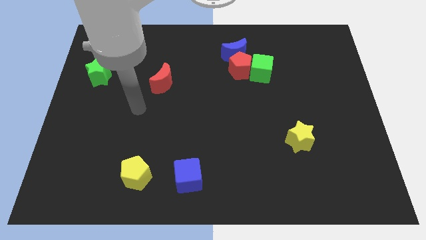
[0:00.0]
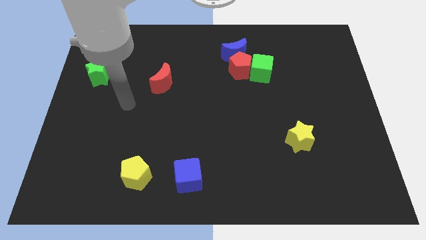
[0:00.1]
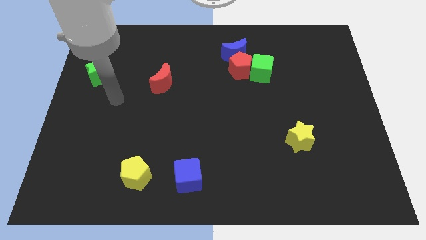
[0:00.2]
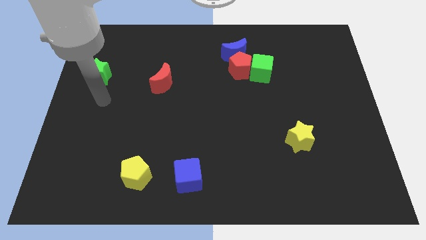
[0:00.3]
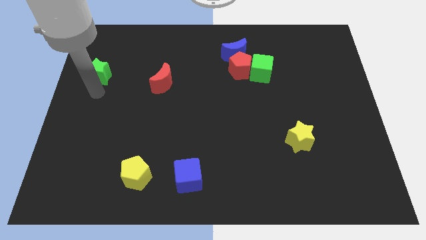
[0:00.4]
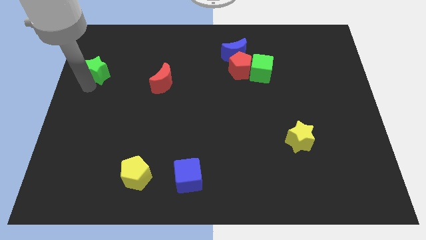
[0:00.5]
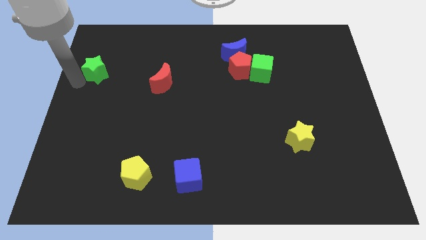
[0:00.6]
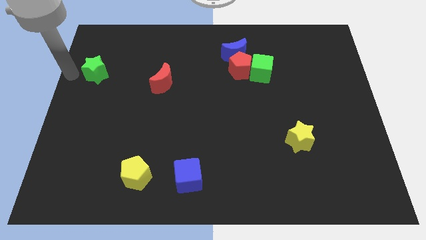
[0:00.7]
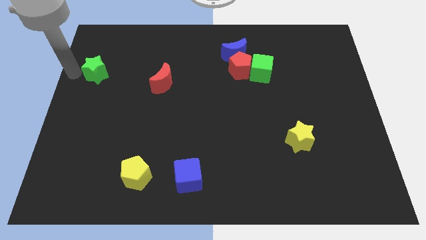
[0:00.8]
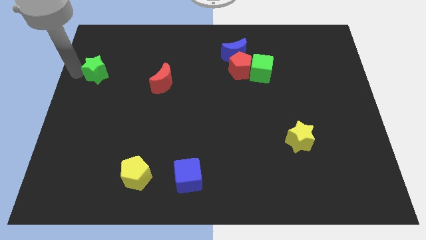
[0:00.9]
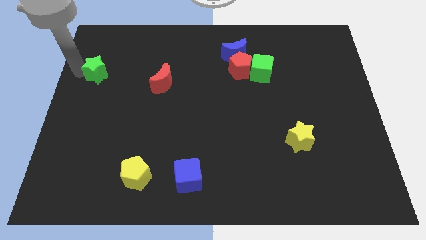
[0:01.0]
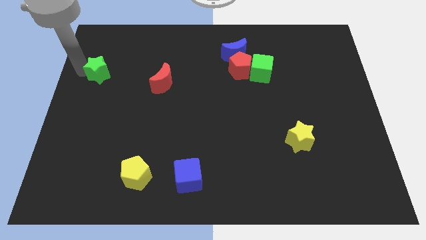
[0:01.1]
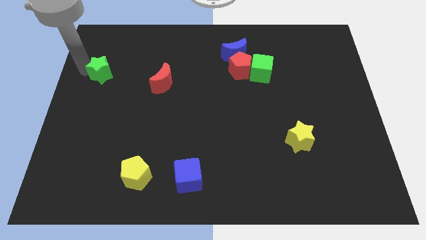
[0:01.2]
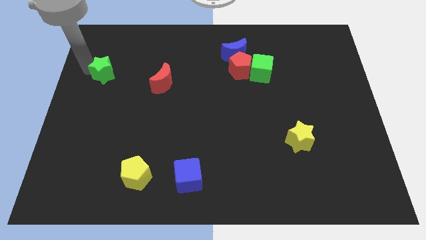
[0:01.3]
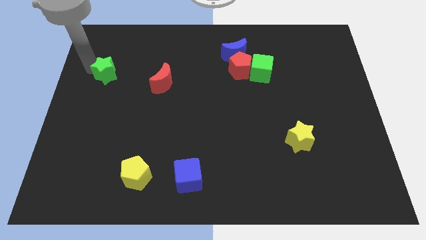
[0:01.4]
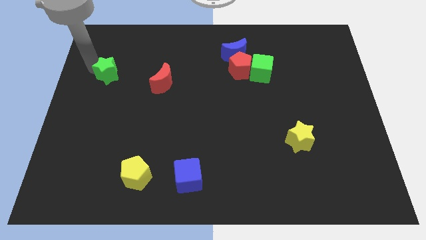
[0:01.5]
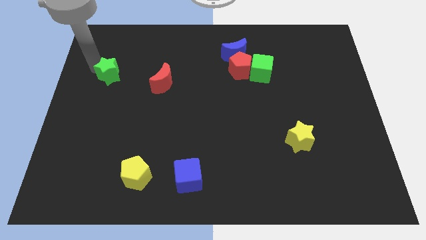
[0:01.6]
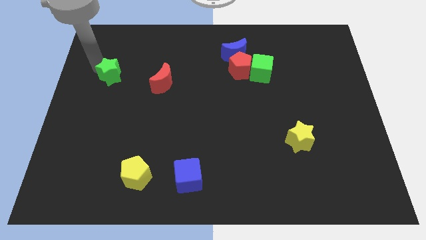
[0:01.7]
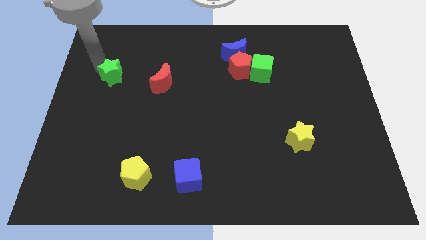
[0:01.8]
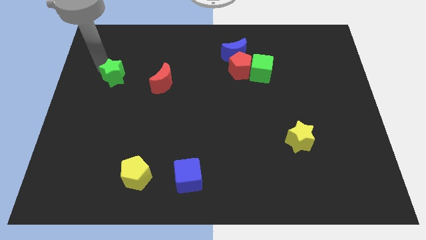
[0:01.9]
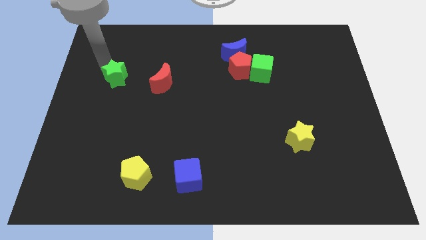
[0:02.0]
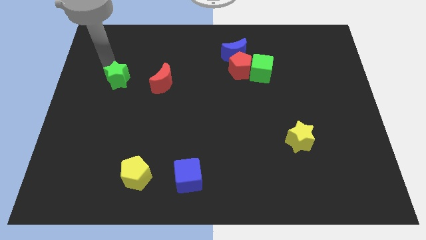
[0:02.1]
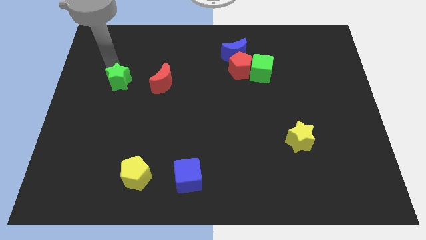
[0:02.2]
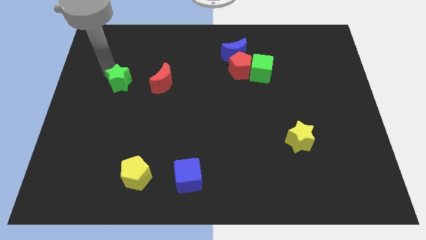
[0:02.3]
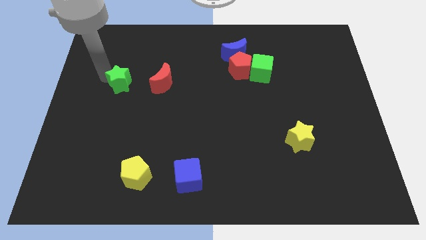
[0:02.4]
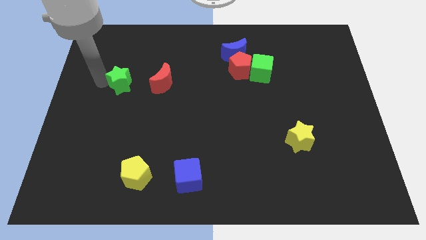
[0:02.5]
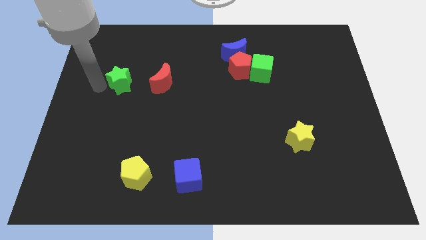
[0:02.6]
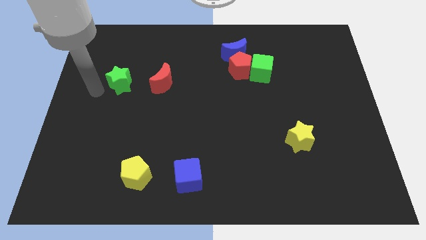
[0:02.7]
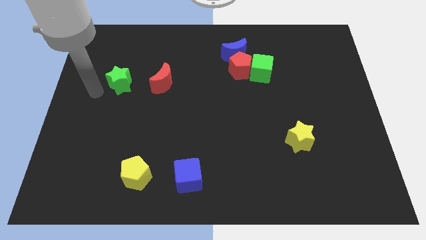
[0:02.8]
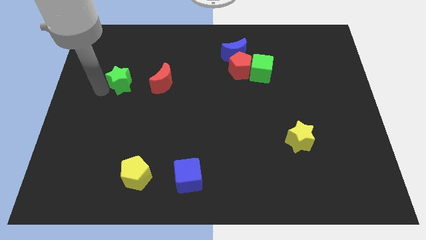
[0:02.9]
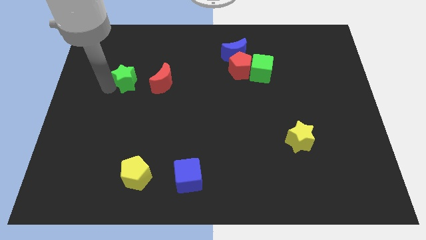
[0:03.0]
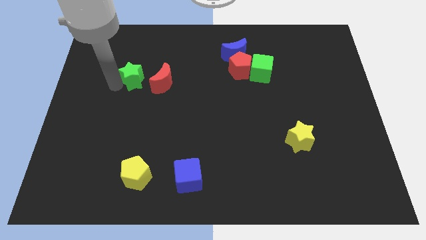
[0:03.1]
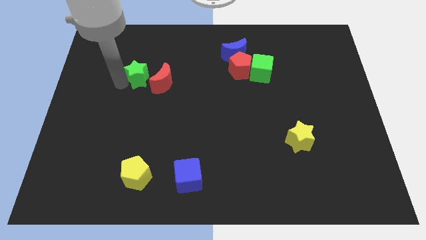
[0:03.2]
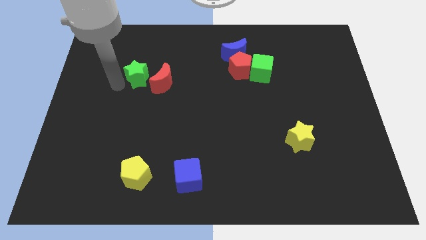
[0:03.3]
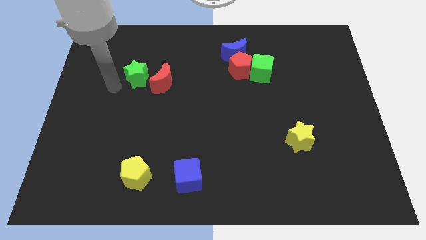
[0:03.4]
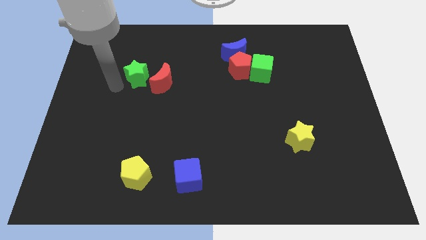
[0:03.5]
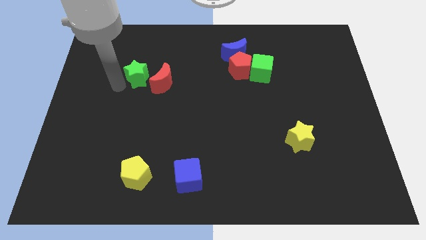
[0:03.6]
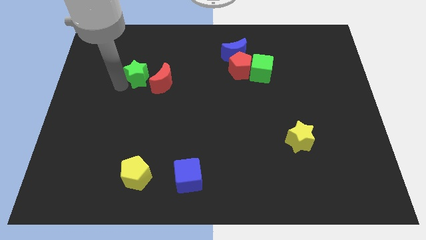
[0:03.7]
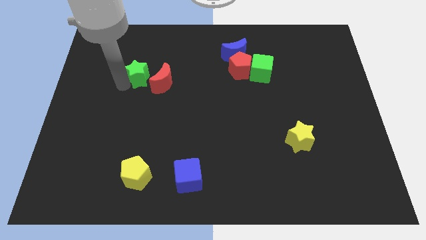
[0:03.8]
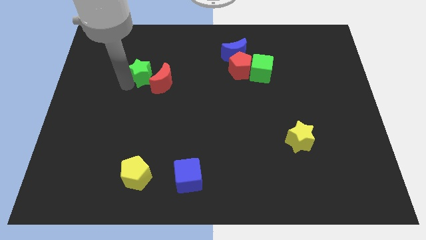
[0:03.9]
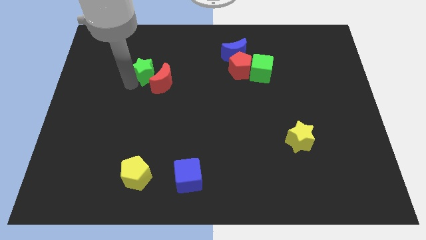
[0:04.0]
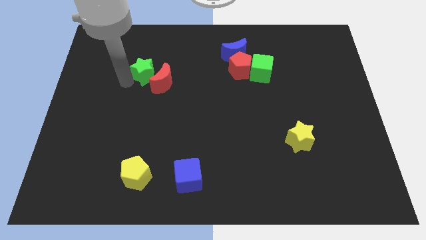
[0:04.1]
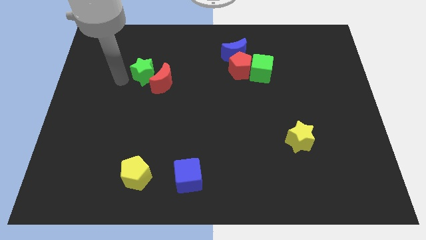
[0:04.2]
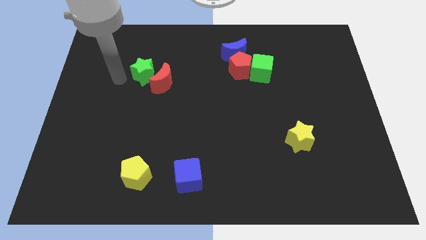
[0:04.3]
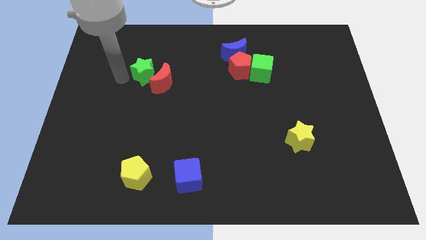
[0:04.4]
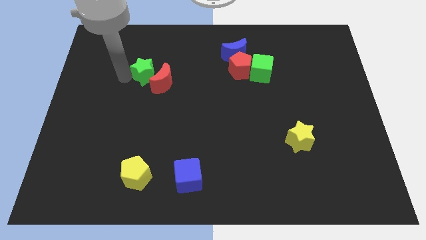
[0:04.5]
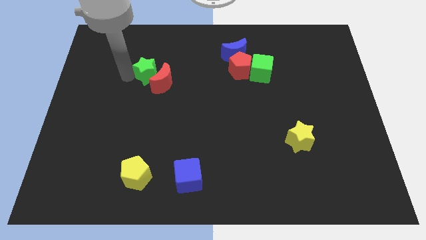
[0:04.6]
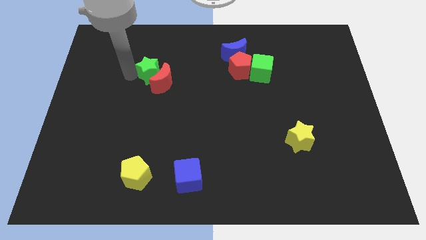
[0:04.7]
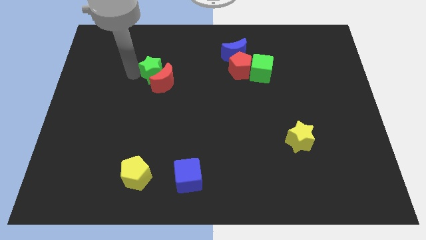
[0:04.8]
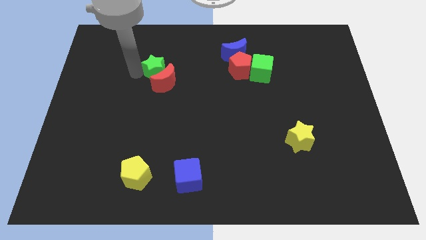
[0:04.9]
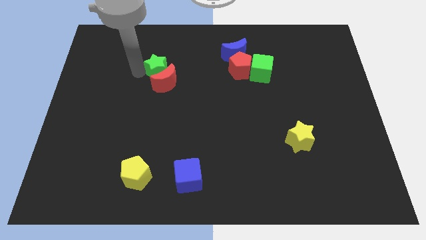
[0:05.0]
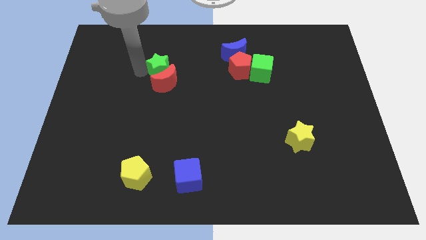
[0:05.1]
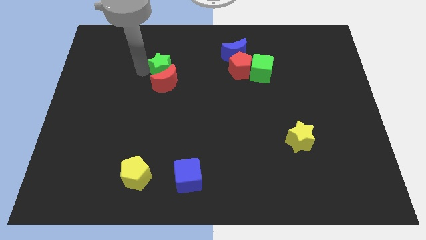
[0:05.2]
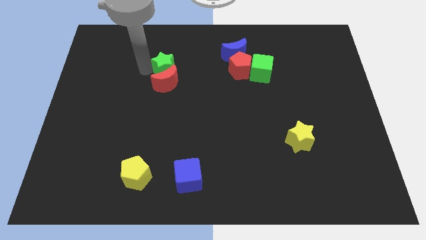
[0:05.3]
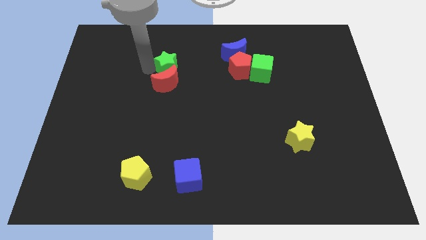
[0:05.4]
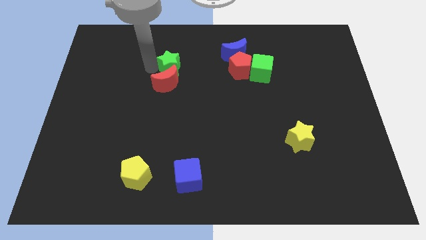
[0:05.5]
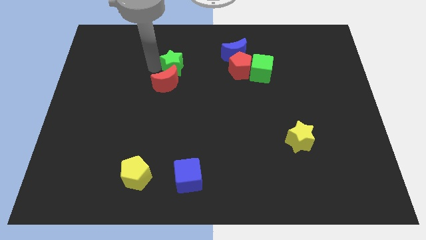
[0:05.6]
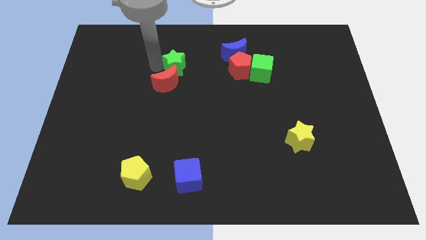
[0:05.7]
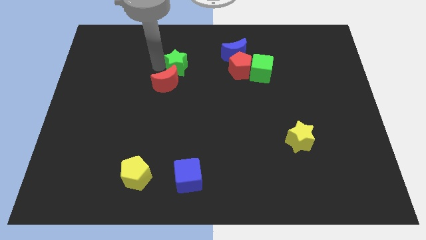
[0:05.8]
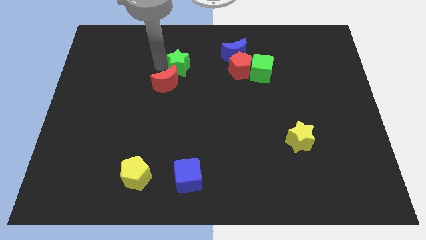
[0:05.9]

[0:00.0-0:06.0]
slide the green star to the right

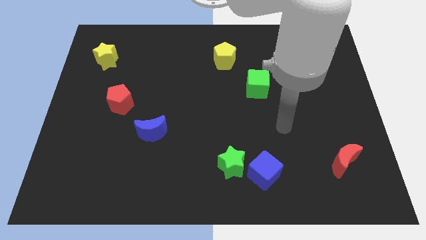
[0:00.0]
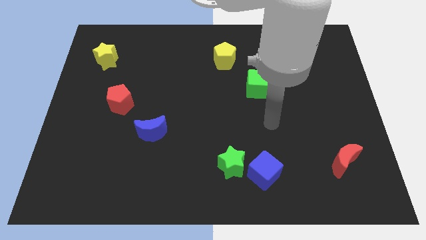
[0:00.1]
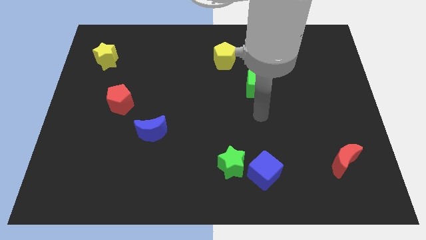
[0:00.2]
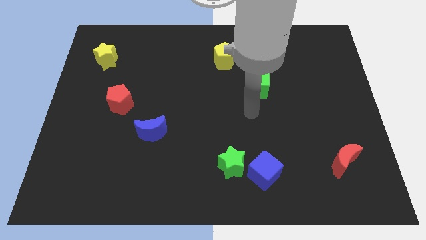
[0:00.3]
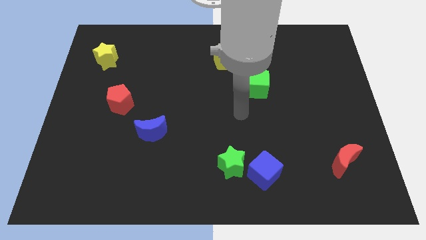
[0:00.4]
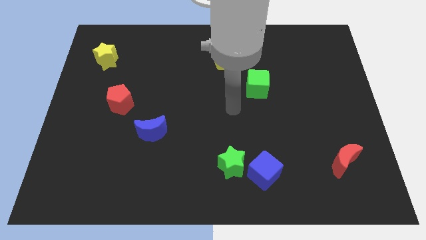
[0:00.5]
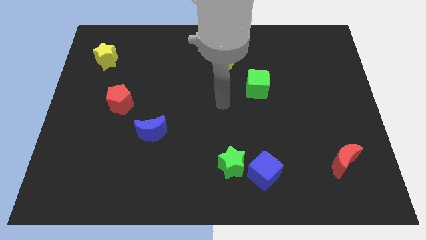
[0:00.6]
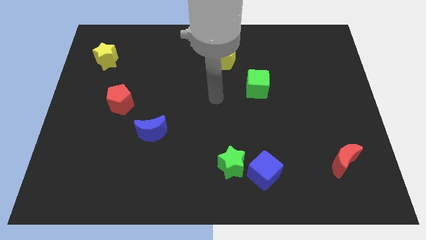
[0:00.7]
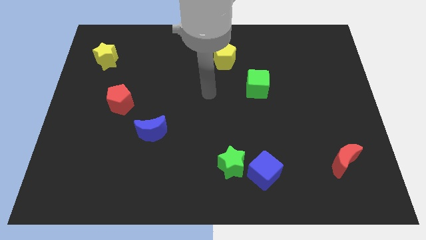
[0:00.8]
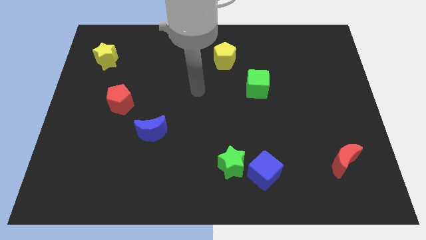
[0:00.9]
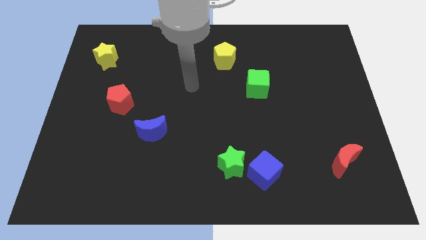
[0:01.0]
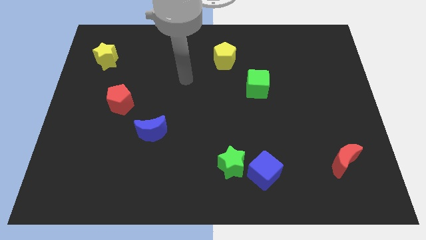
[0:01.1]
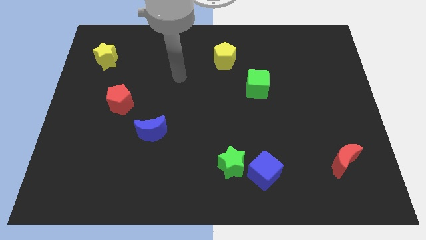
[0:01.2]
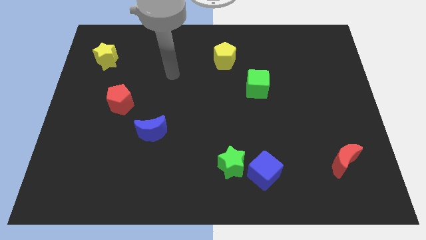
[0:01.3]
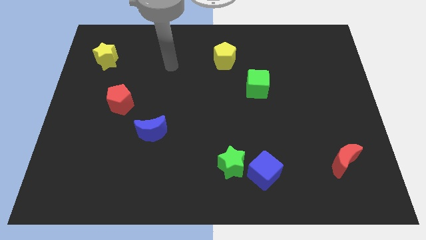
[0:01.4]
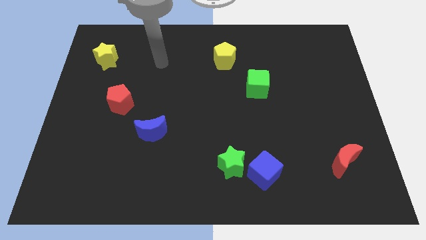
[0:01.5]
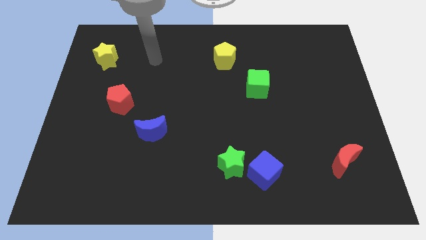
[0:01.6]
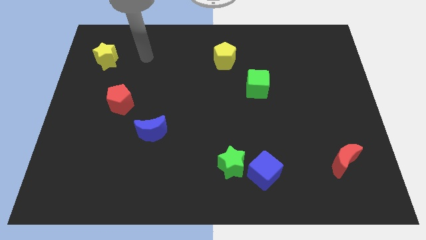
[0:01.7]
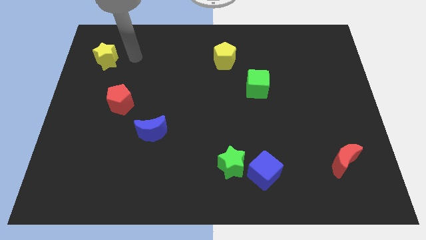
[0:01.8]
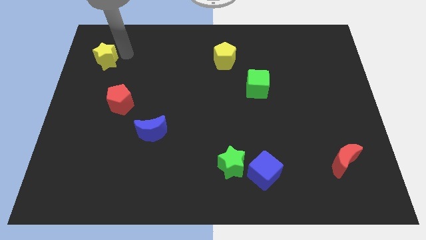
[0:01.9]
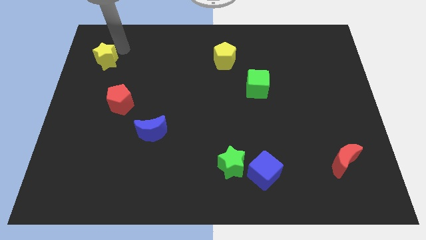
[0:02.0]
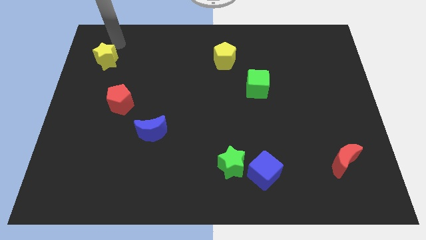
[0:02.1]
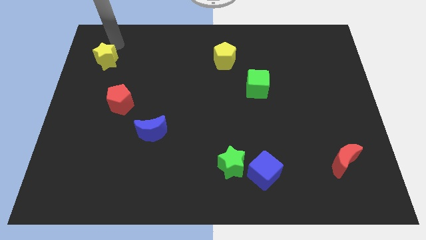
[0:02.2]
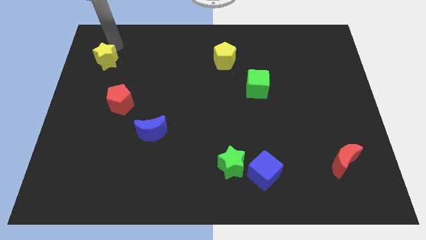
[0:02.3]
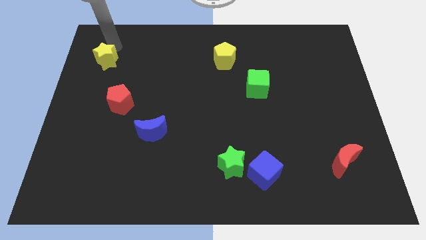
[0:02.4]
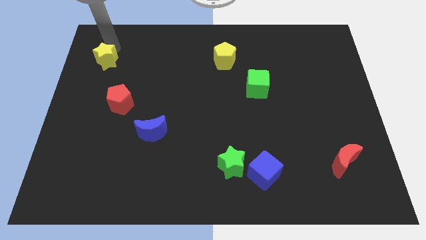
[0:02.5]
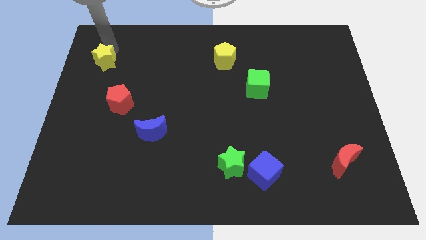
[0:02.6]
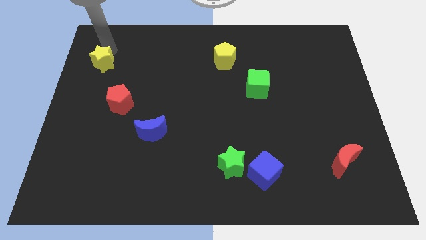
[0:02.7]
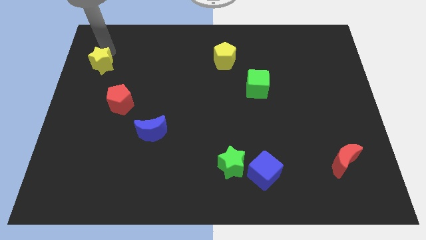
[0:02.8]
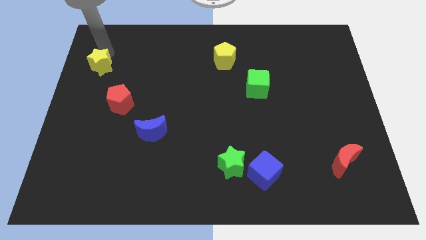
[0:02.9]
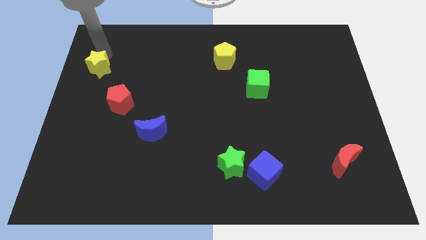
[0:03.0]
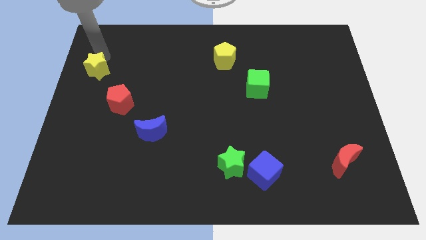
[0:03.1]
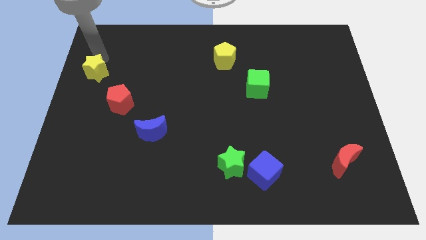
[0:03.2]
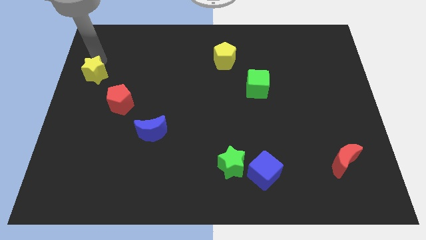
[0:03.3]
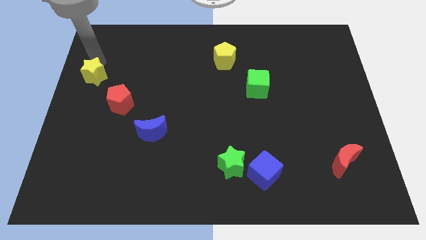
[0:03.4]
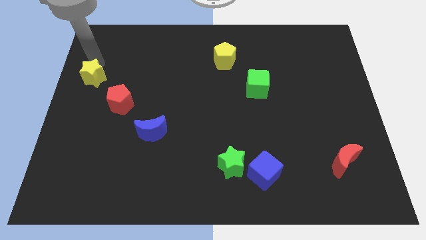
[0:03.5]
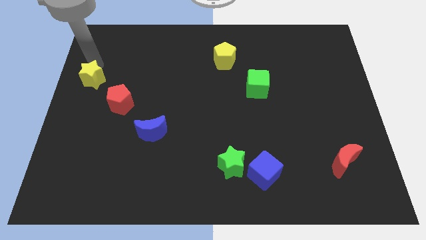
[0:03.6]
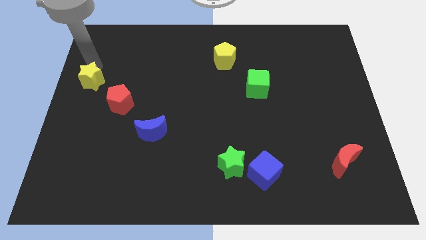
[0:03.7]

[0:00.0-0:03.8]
slightly slide the yellow star downwards
